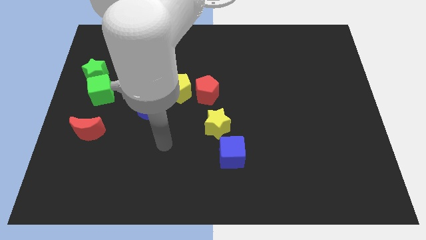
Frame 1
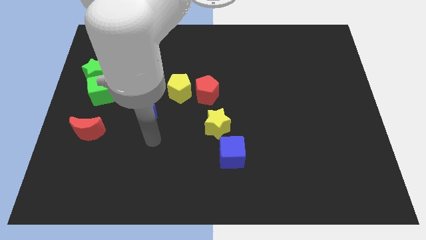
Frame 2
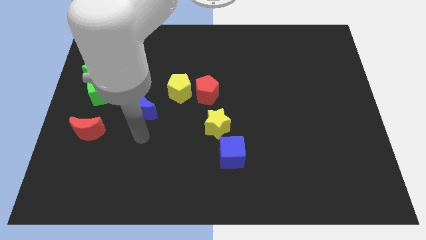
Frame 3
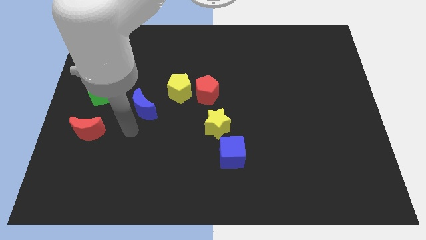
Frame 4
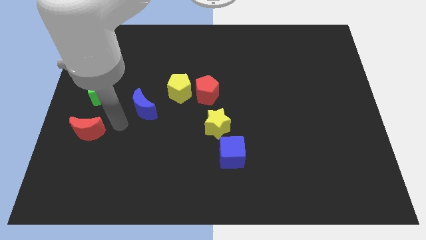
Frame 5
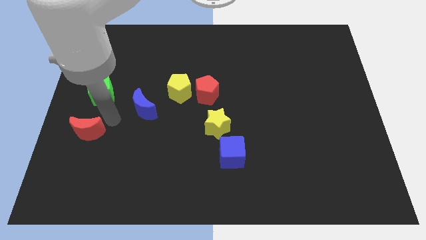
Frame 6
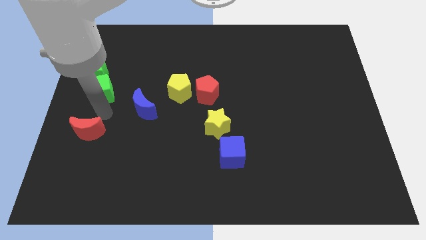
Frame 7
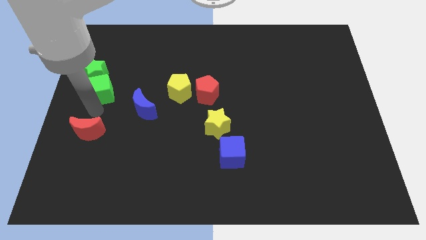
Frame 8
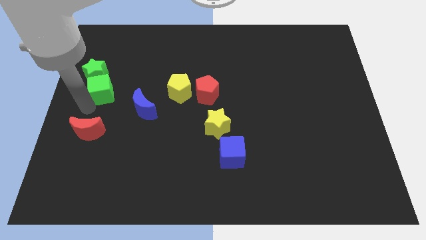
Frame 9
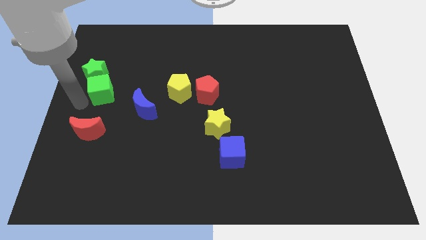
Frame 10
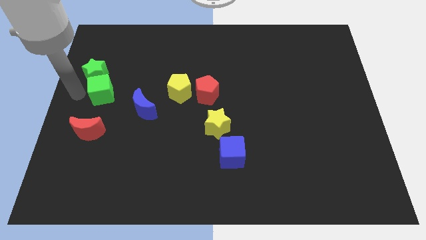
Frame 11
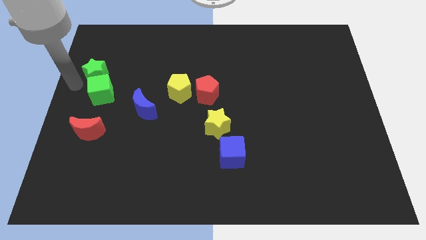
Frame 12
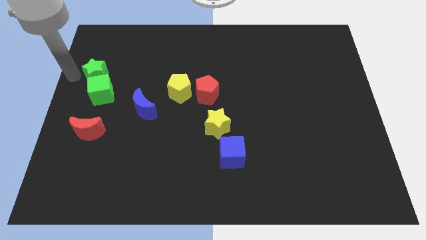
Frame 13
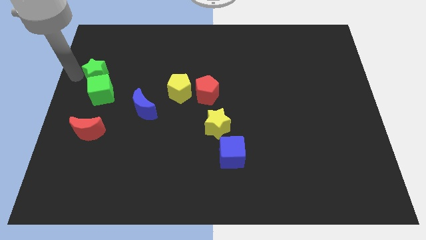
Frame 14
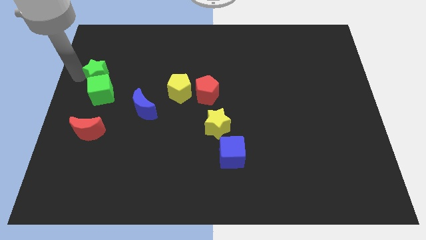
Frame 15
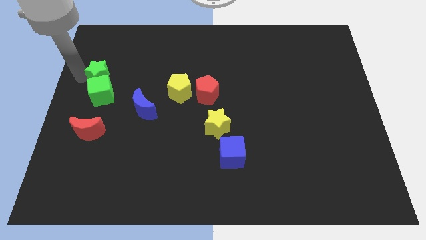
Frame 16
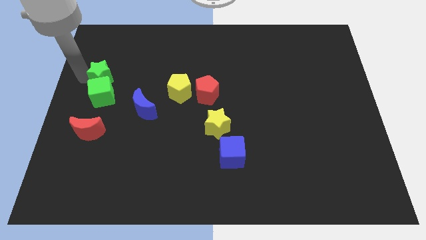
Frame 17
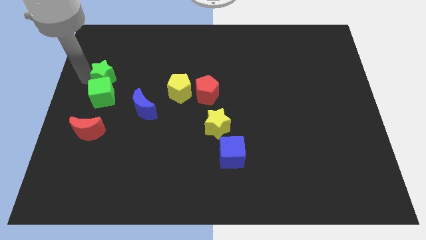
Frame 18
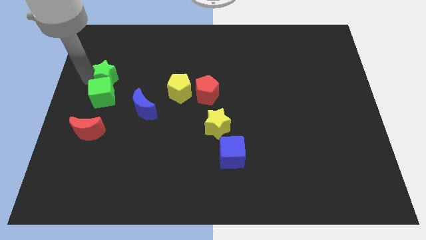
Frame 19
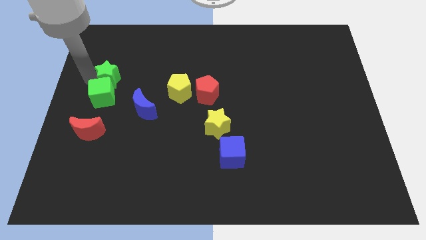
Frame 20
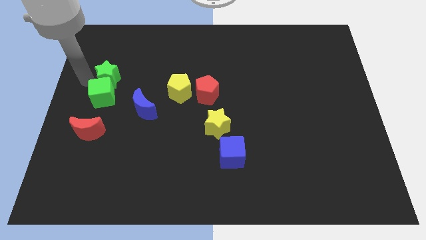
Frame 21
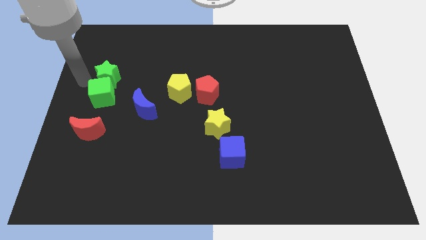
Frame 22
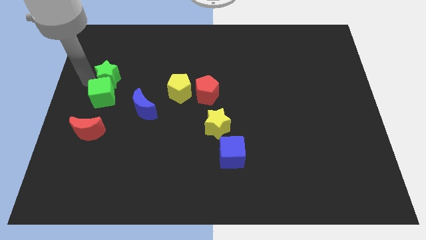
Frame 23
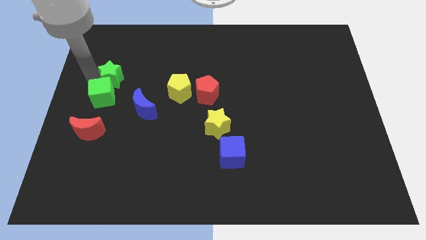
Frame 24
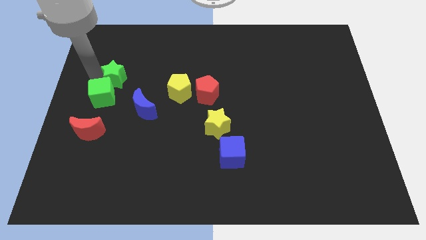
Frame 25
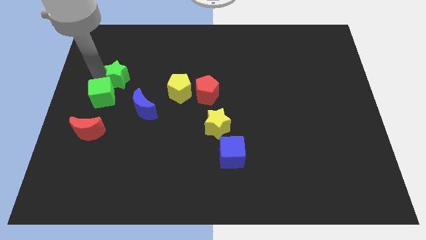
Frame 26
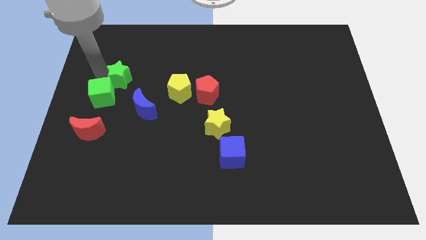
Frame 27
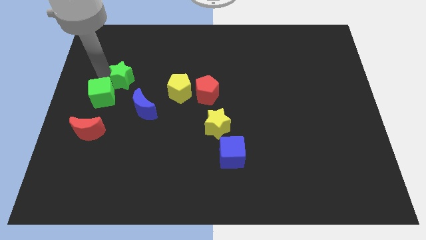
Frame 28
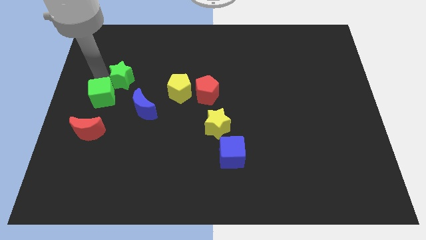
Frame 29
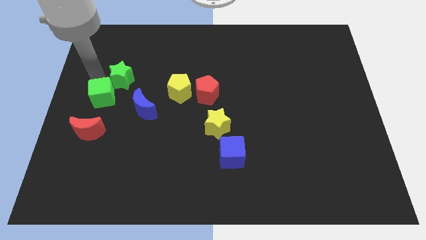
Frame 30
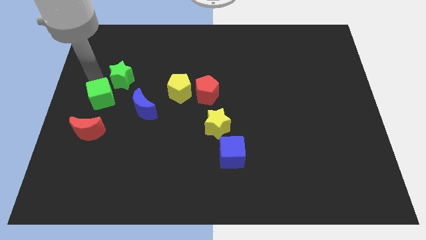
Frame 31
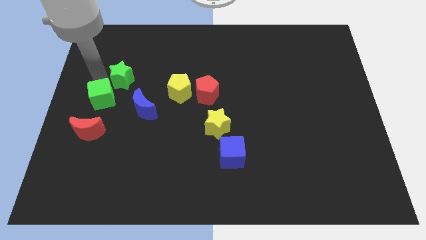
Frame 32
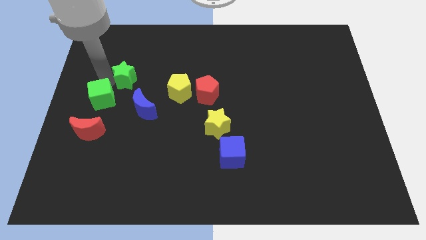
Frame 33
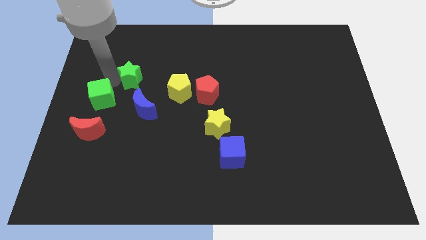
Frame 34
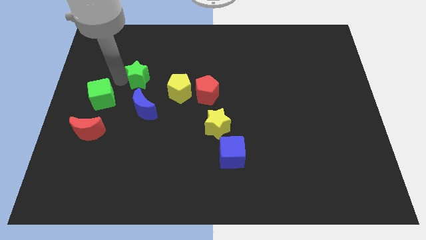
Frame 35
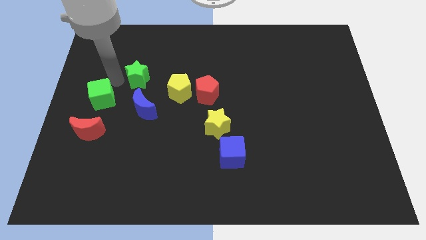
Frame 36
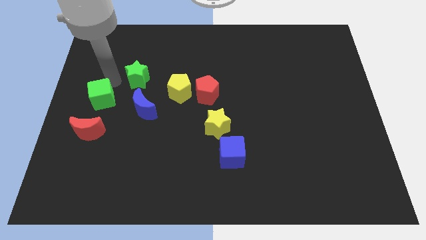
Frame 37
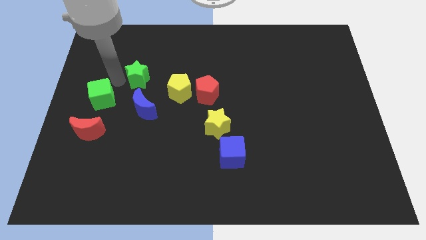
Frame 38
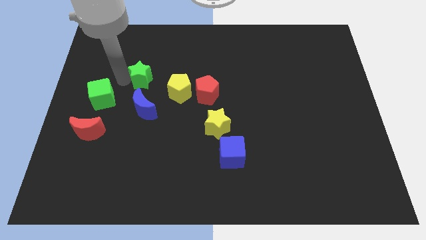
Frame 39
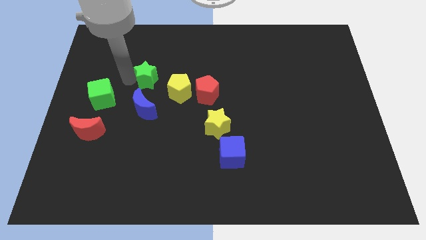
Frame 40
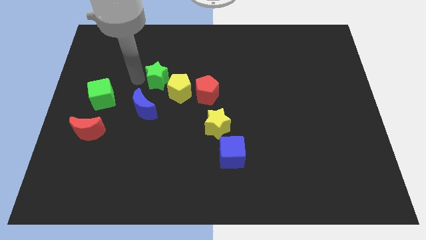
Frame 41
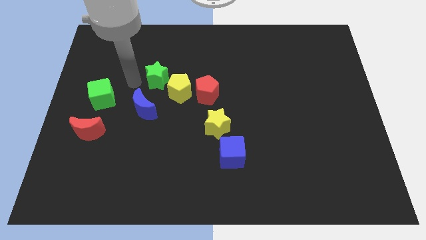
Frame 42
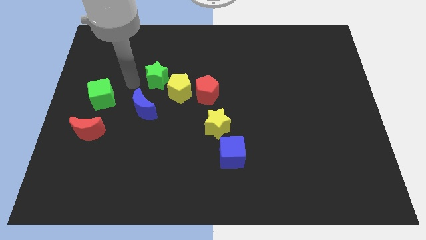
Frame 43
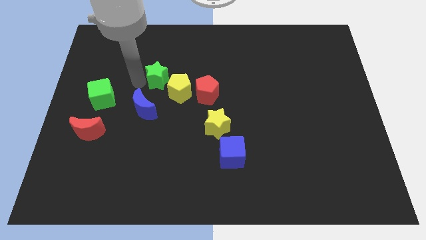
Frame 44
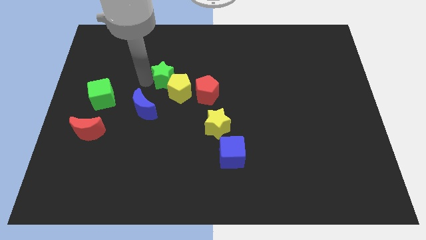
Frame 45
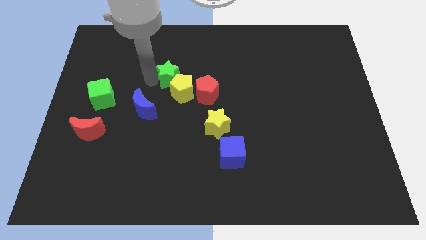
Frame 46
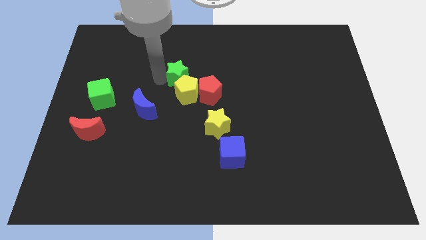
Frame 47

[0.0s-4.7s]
push the green star right

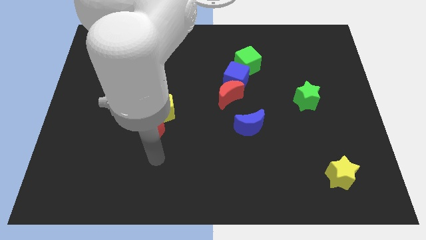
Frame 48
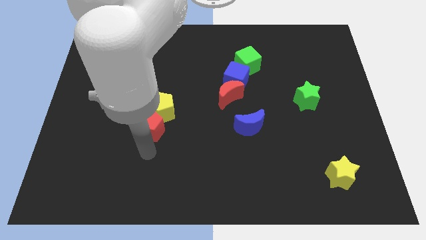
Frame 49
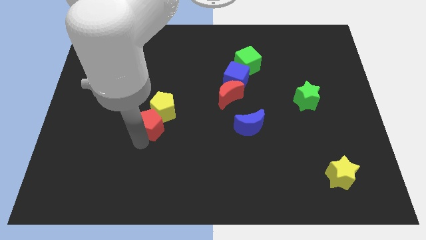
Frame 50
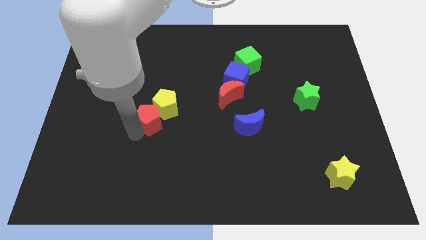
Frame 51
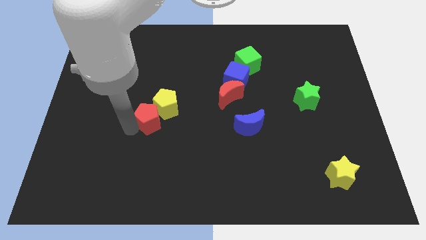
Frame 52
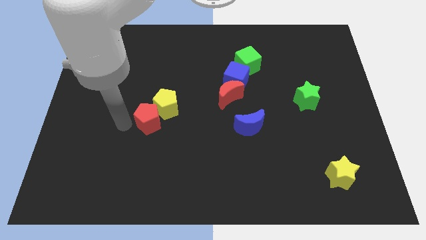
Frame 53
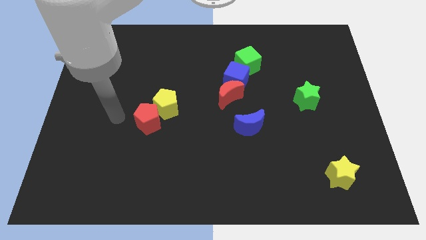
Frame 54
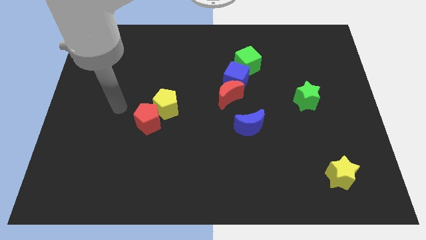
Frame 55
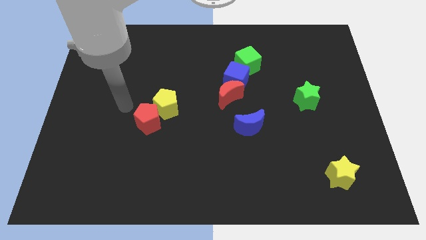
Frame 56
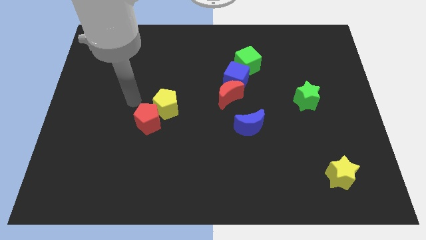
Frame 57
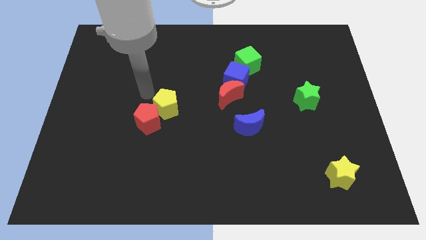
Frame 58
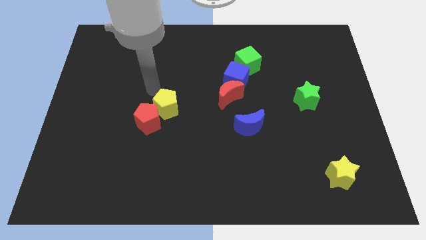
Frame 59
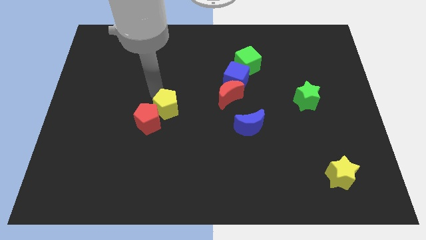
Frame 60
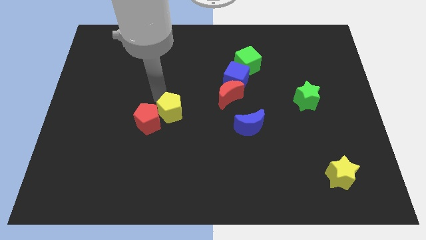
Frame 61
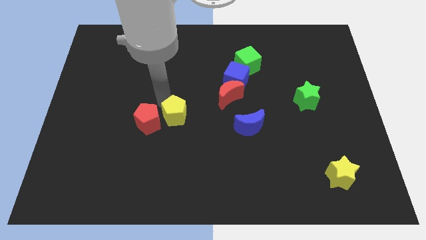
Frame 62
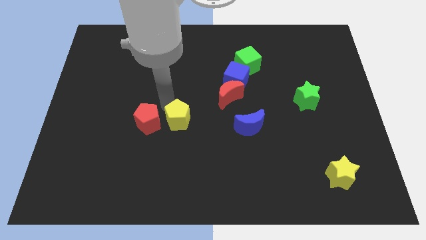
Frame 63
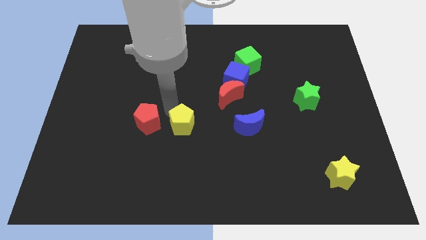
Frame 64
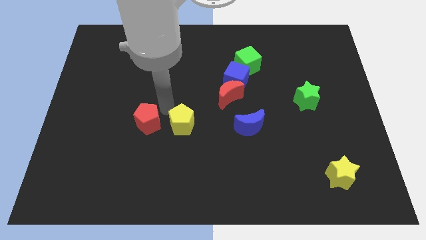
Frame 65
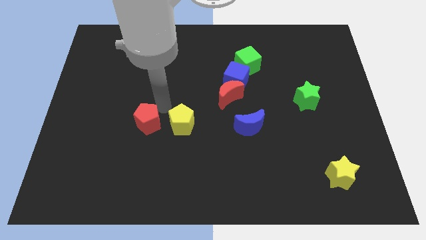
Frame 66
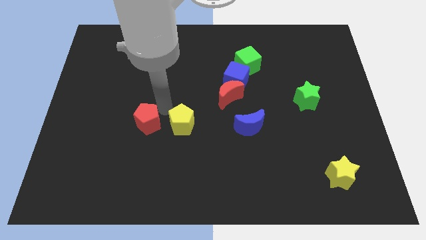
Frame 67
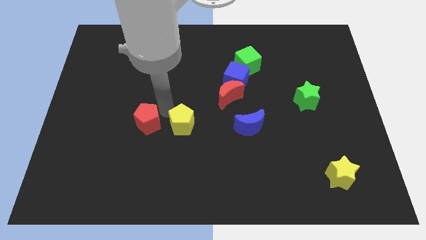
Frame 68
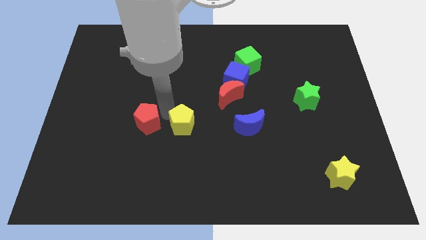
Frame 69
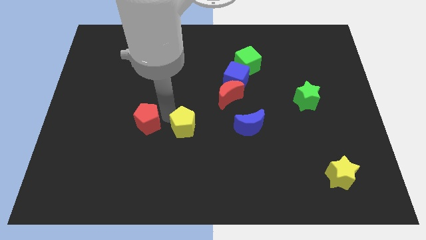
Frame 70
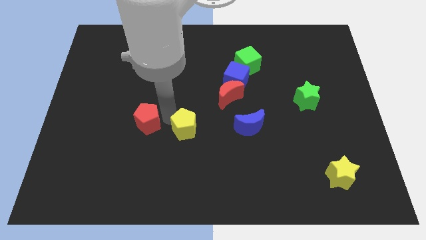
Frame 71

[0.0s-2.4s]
move the yellow pentagon a little bit down and then right

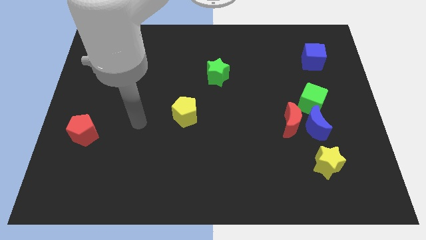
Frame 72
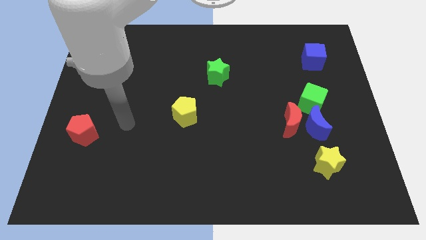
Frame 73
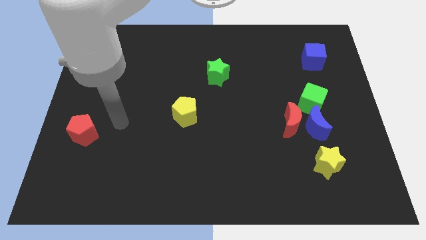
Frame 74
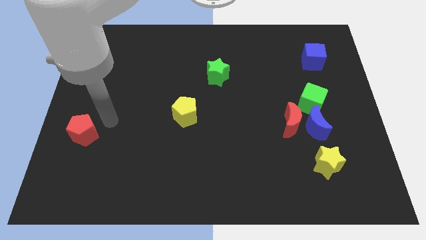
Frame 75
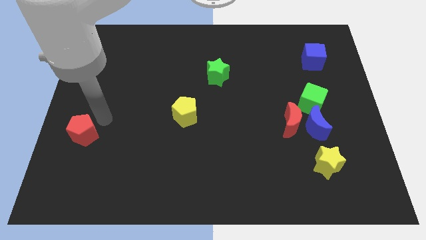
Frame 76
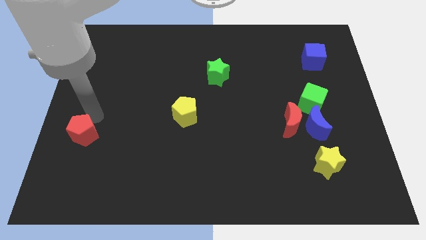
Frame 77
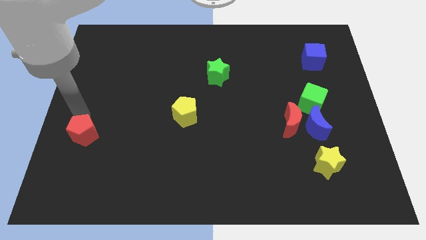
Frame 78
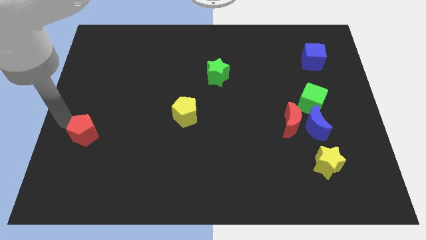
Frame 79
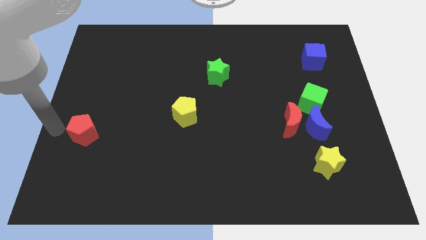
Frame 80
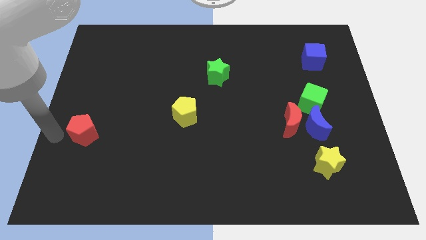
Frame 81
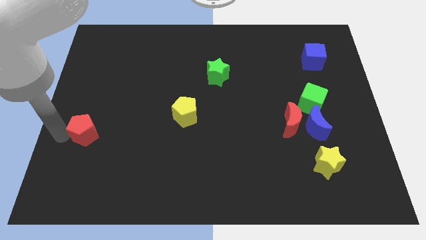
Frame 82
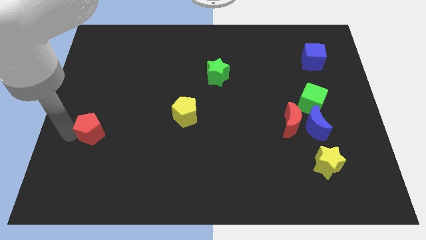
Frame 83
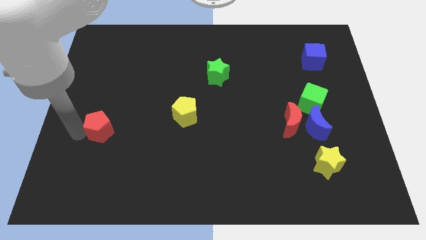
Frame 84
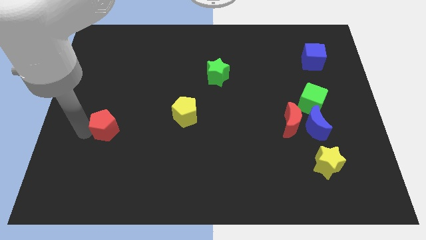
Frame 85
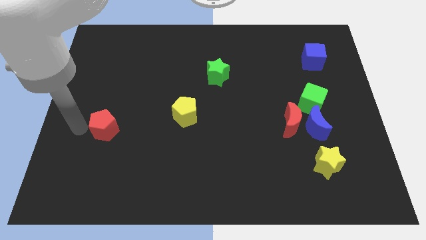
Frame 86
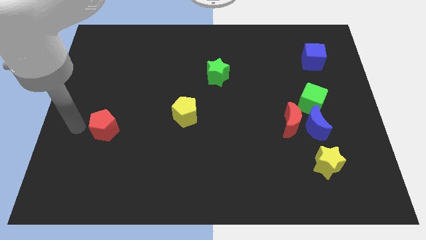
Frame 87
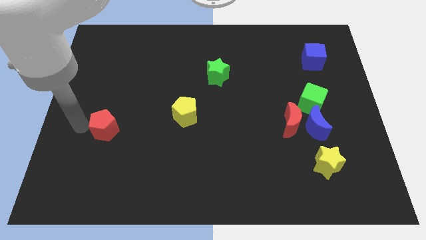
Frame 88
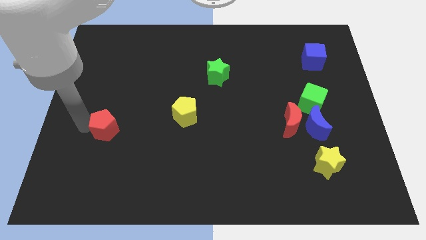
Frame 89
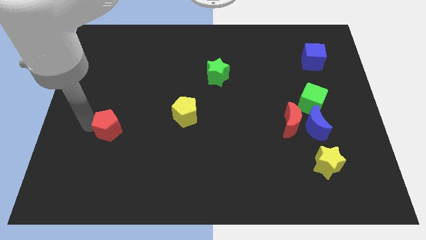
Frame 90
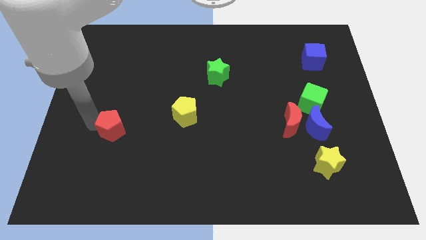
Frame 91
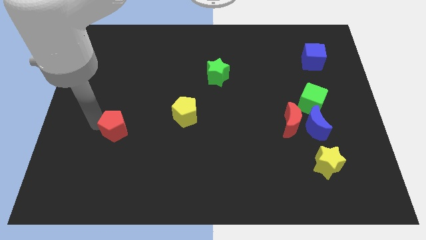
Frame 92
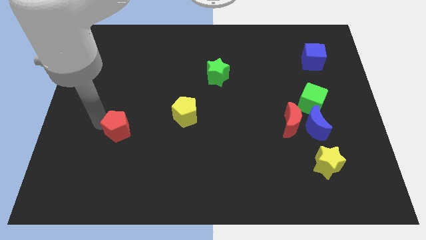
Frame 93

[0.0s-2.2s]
push the red pentagon right somewhat
